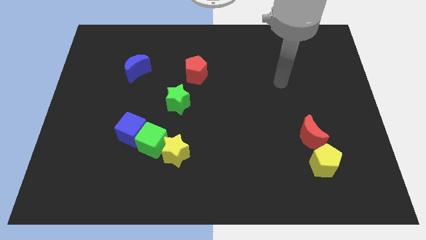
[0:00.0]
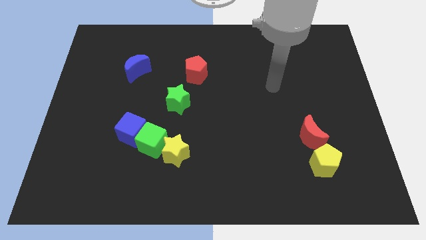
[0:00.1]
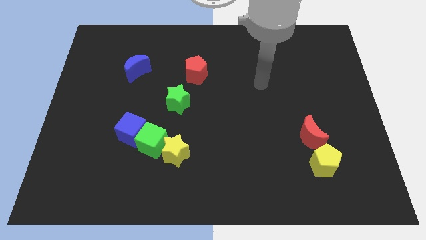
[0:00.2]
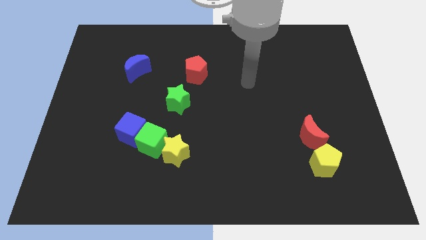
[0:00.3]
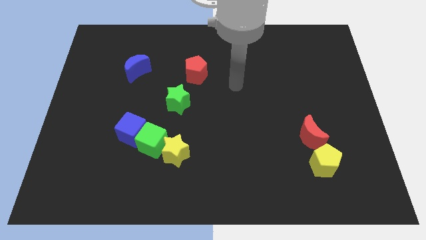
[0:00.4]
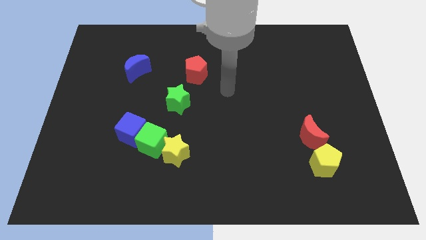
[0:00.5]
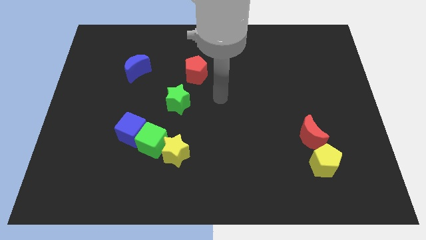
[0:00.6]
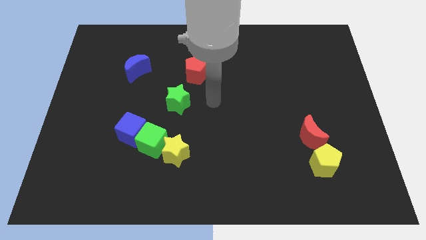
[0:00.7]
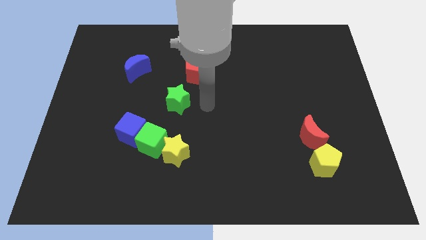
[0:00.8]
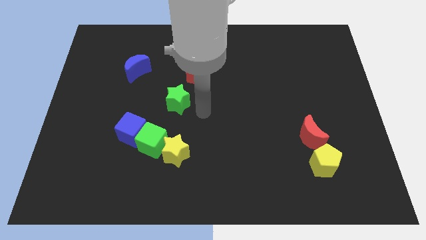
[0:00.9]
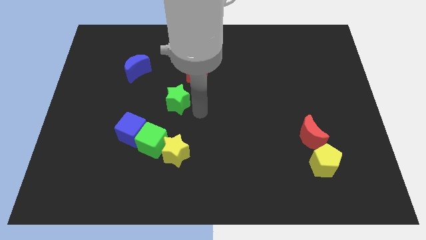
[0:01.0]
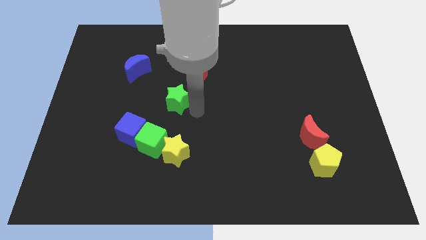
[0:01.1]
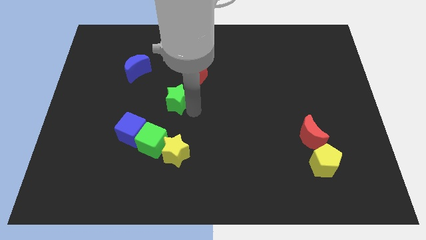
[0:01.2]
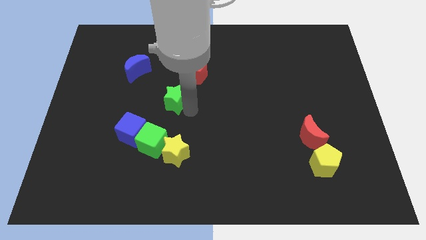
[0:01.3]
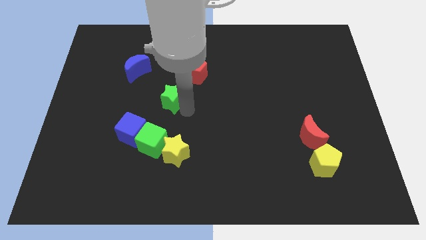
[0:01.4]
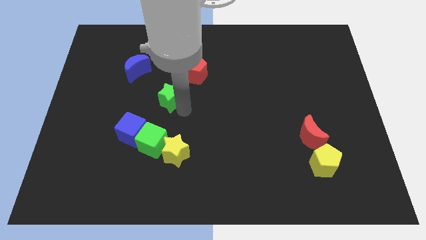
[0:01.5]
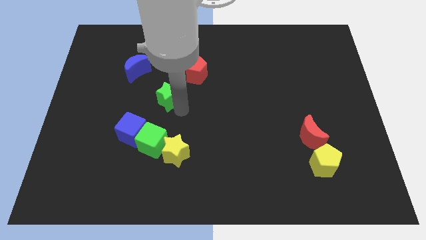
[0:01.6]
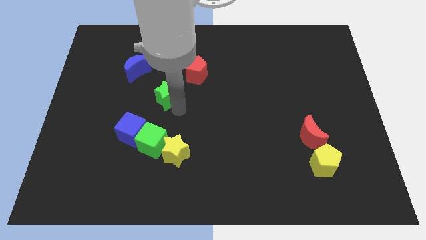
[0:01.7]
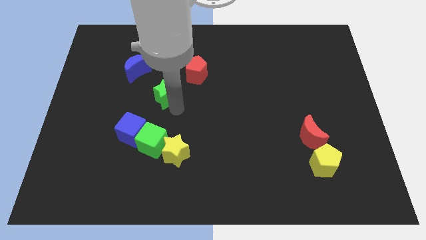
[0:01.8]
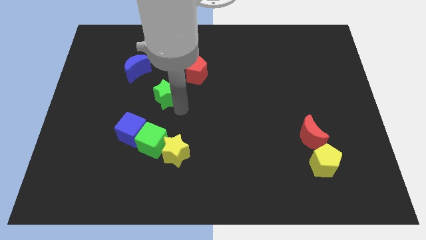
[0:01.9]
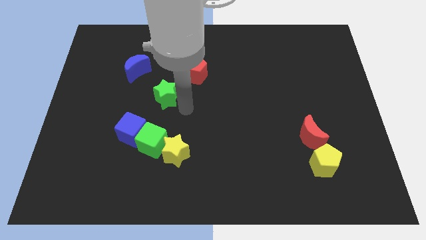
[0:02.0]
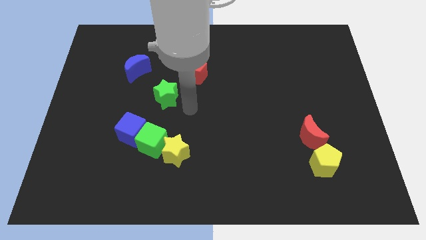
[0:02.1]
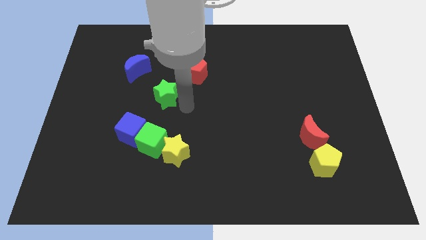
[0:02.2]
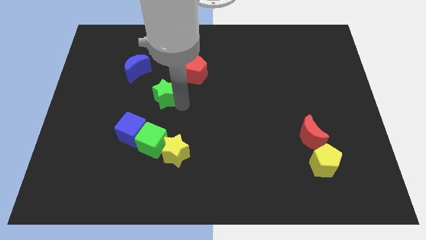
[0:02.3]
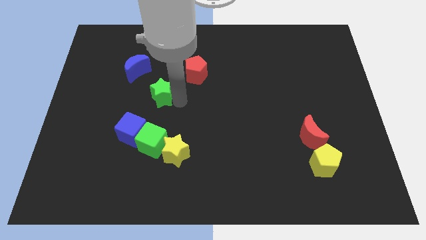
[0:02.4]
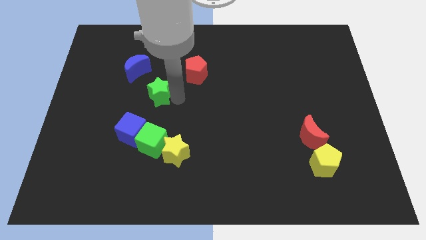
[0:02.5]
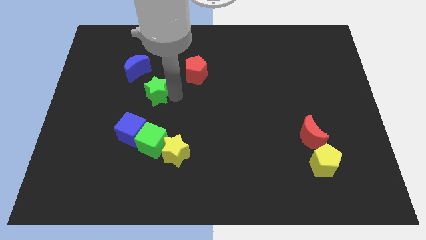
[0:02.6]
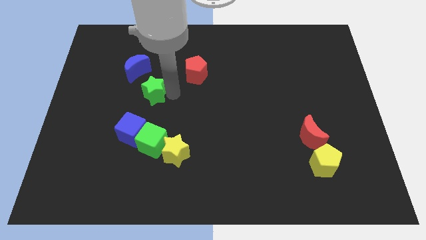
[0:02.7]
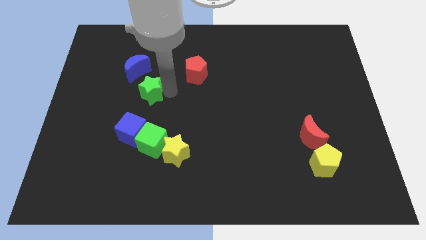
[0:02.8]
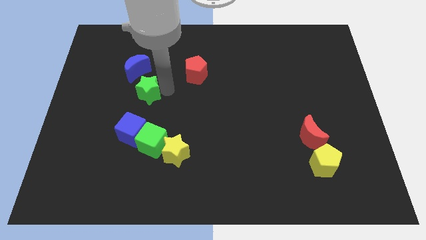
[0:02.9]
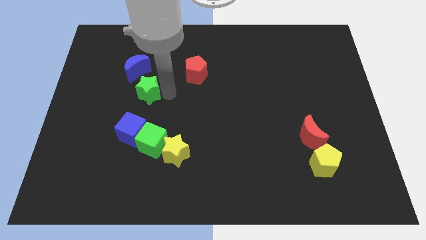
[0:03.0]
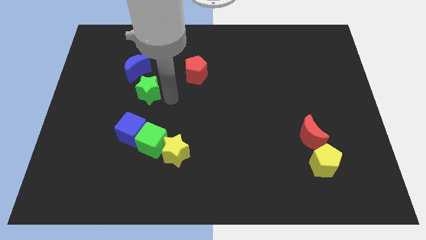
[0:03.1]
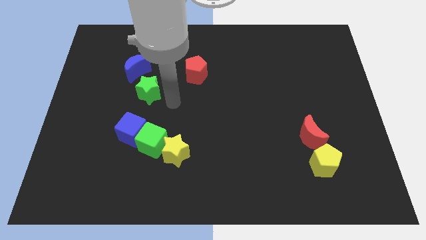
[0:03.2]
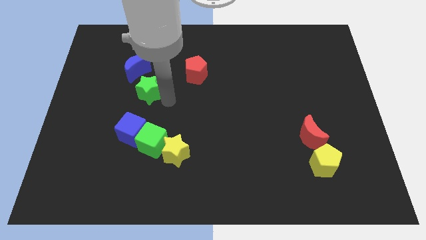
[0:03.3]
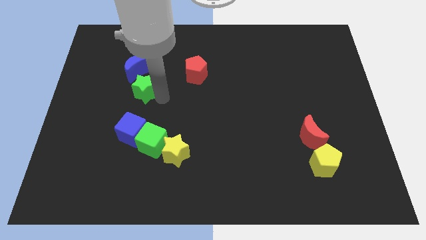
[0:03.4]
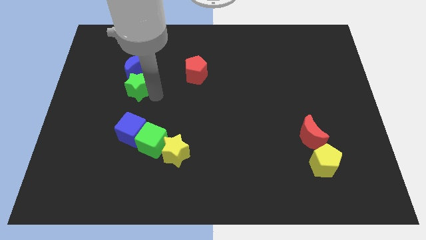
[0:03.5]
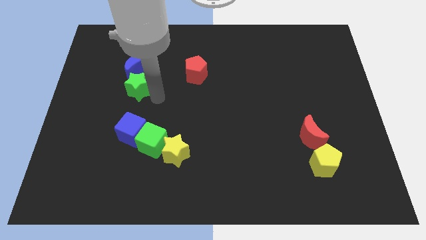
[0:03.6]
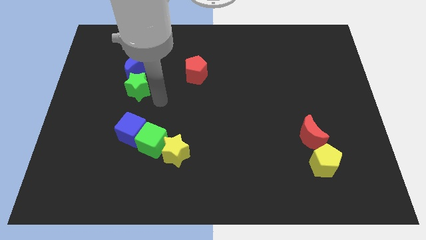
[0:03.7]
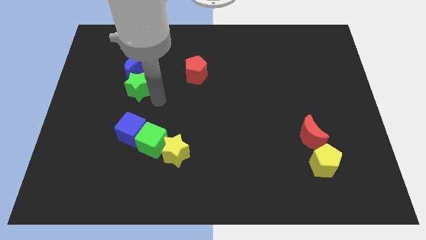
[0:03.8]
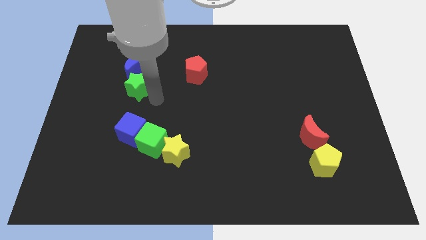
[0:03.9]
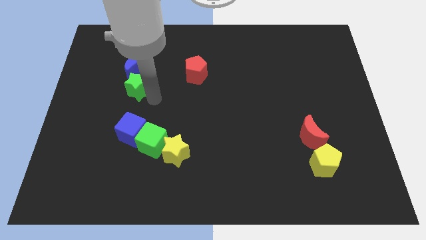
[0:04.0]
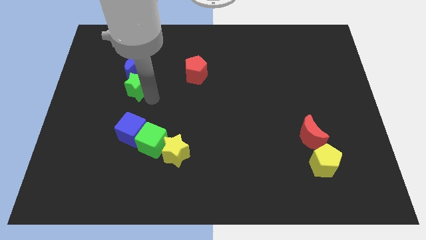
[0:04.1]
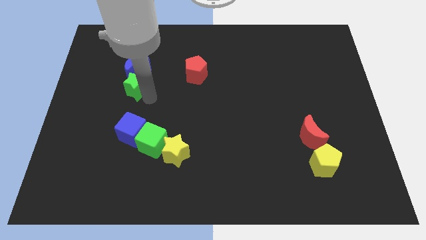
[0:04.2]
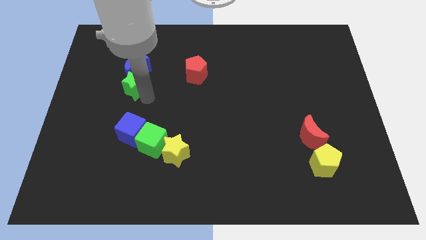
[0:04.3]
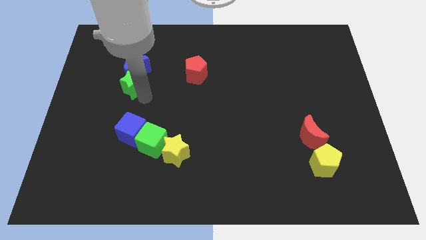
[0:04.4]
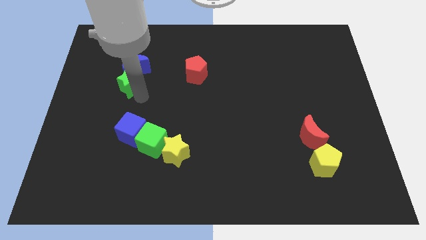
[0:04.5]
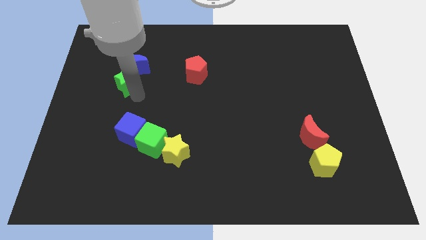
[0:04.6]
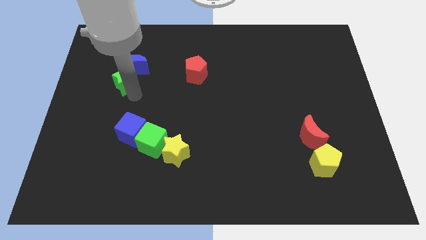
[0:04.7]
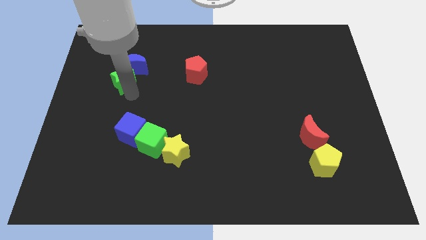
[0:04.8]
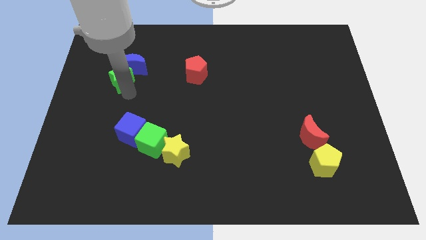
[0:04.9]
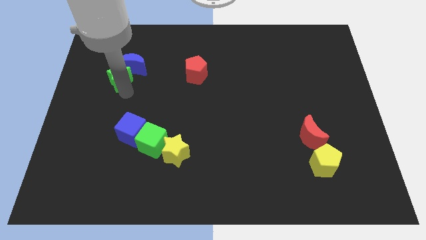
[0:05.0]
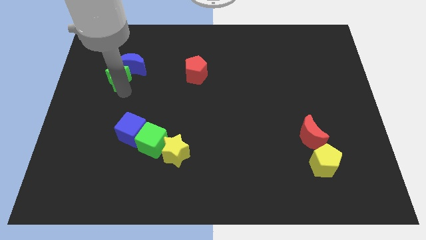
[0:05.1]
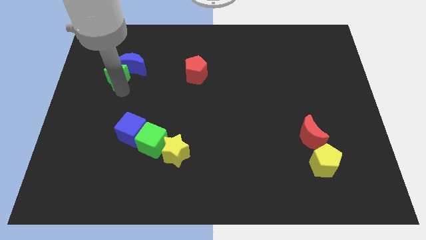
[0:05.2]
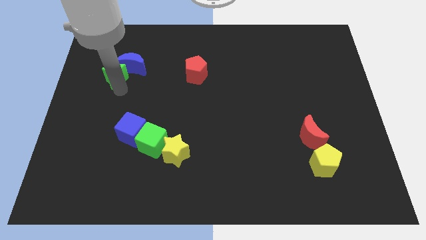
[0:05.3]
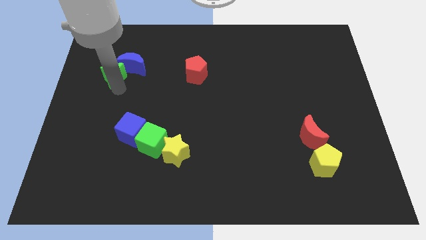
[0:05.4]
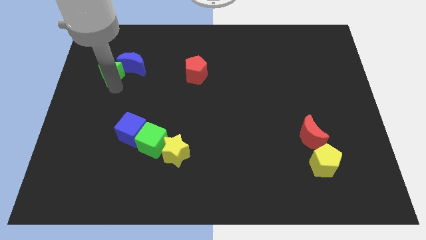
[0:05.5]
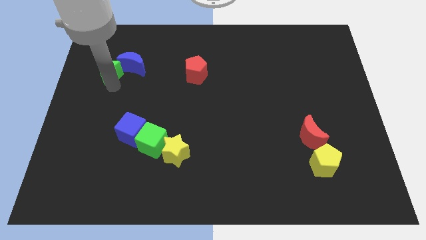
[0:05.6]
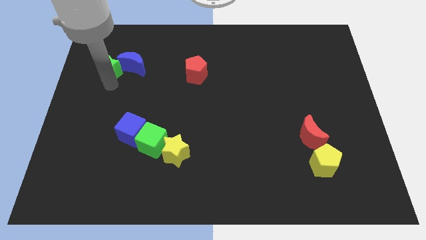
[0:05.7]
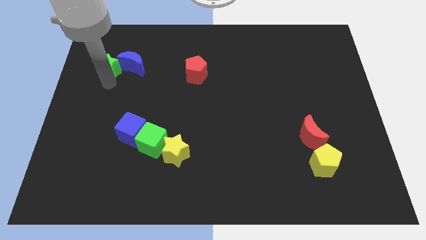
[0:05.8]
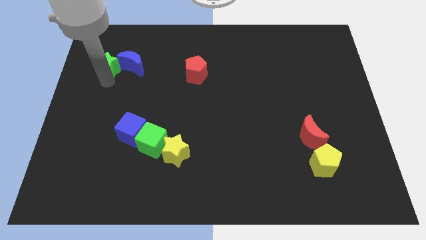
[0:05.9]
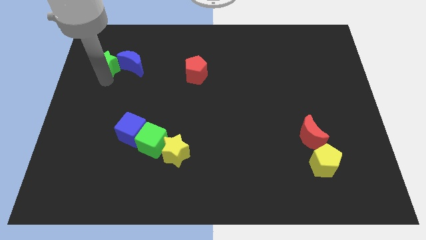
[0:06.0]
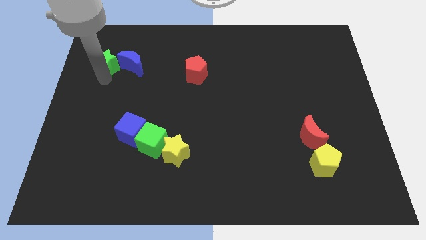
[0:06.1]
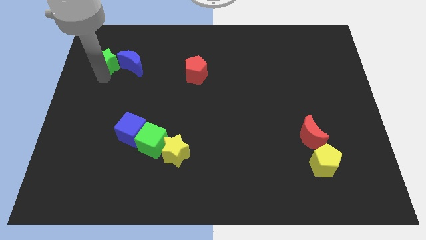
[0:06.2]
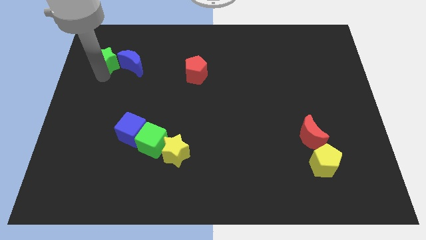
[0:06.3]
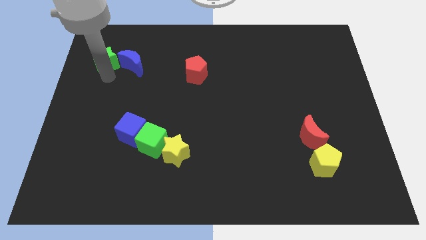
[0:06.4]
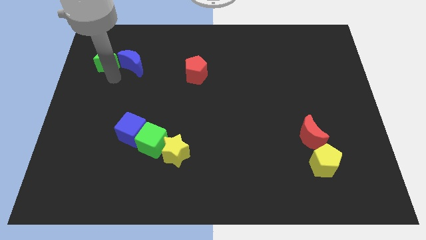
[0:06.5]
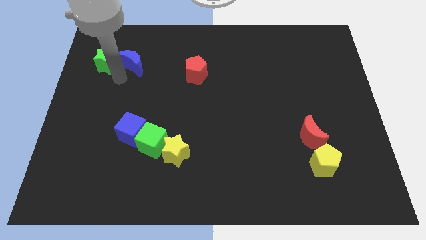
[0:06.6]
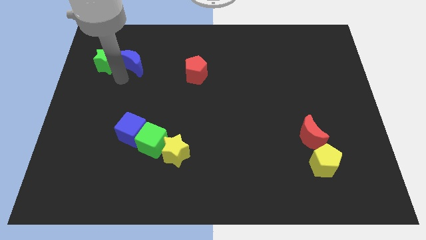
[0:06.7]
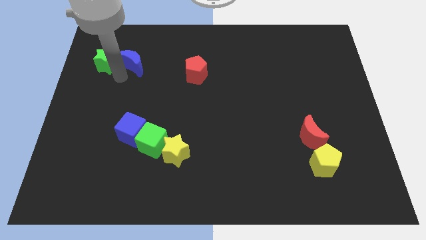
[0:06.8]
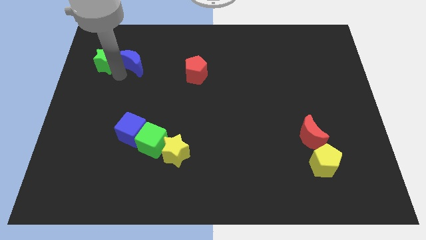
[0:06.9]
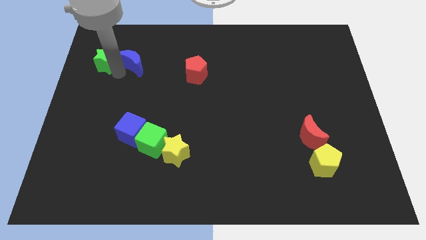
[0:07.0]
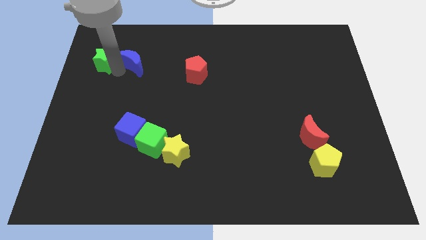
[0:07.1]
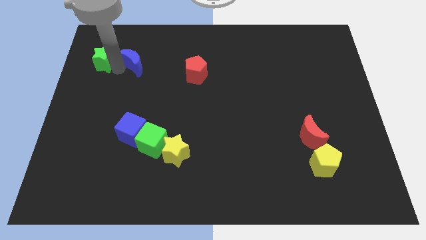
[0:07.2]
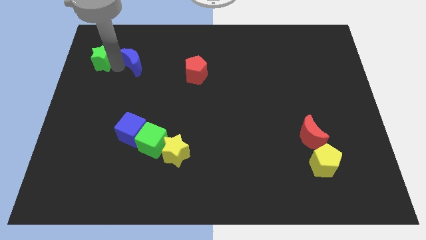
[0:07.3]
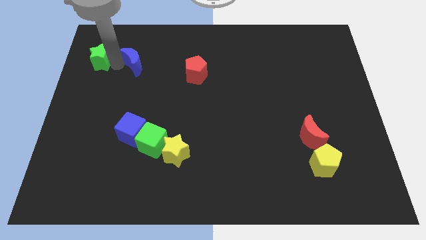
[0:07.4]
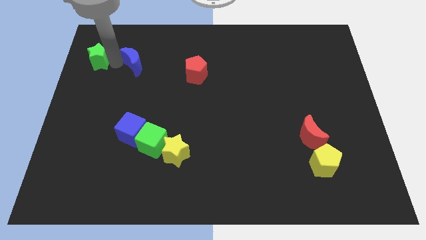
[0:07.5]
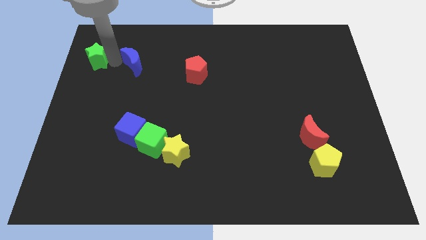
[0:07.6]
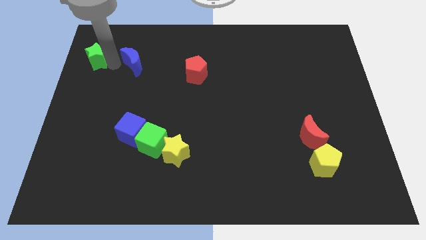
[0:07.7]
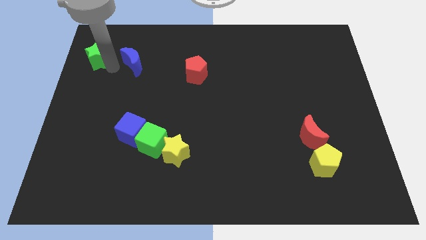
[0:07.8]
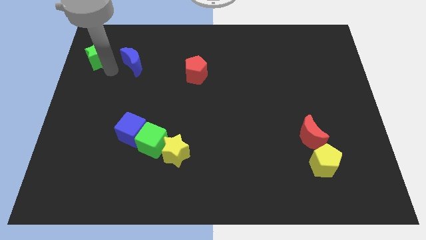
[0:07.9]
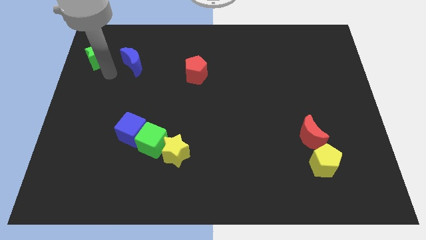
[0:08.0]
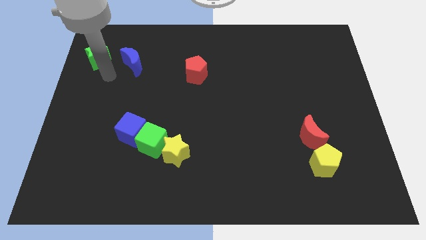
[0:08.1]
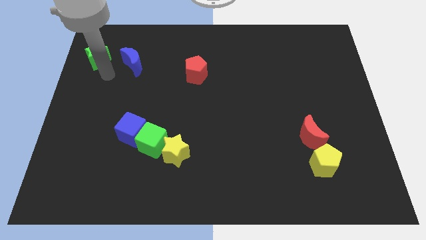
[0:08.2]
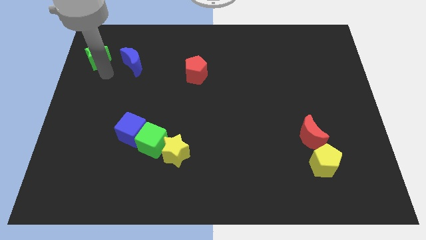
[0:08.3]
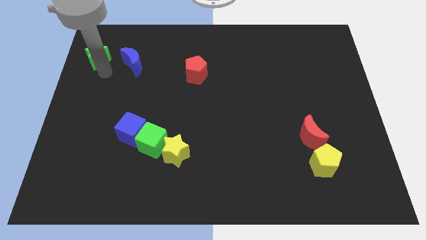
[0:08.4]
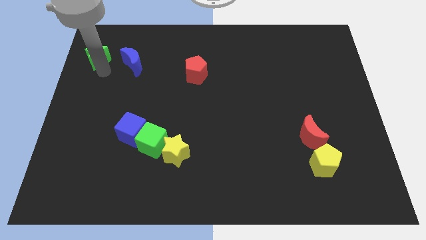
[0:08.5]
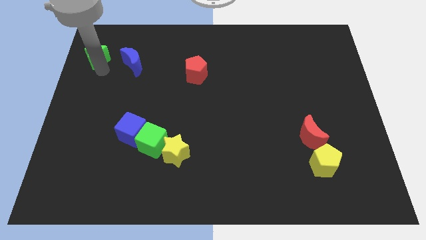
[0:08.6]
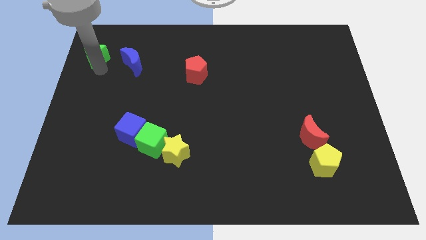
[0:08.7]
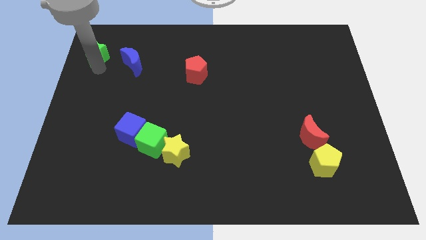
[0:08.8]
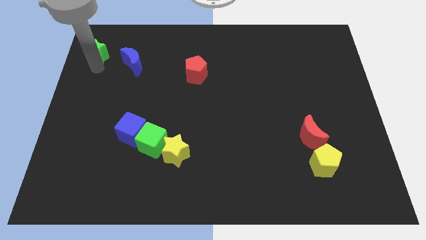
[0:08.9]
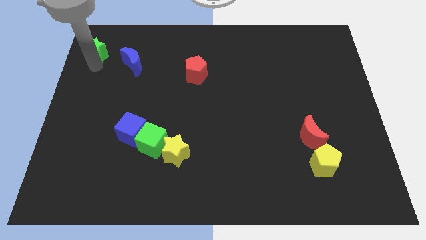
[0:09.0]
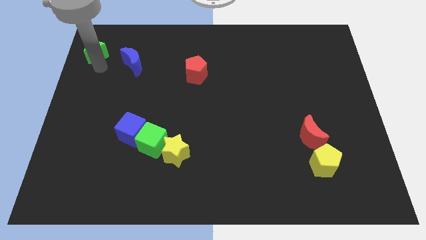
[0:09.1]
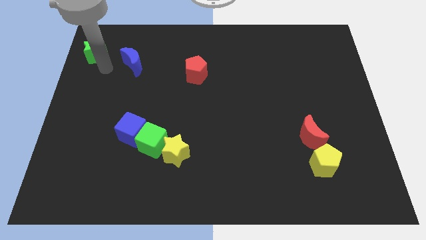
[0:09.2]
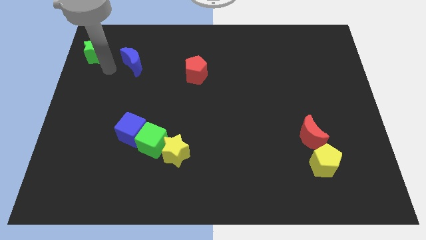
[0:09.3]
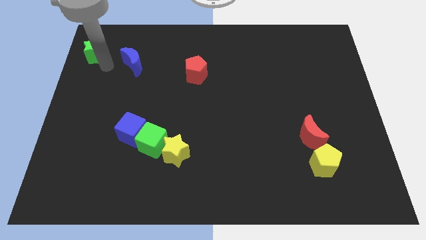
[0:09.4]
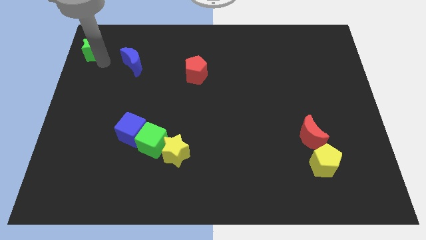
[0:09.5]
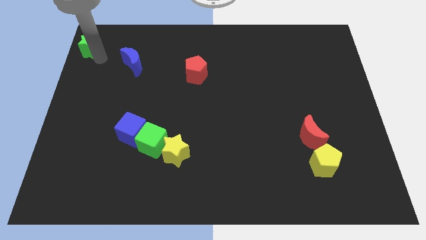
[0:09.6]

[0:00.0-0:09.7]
push the green star to the top left of the board
